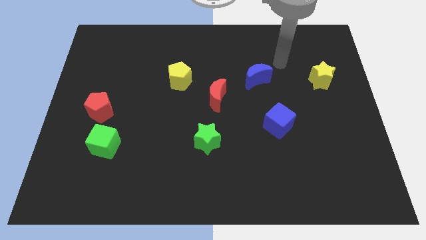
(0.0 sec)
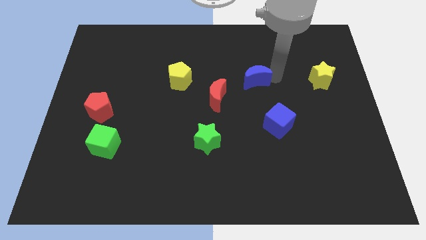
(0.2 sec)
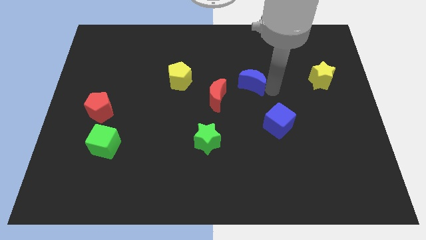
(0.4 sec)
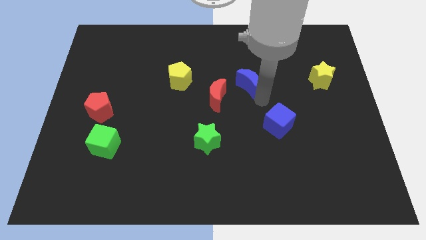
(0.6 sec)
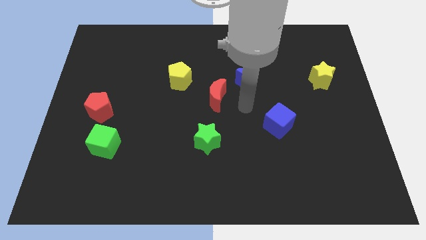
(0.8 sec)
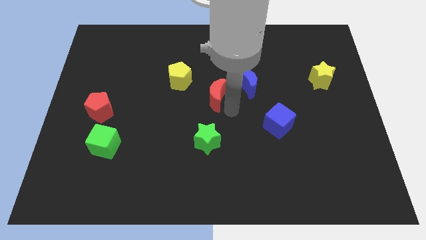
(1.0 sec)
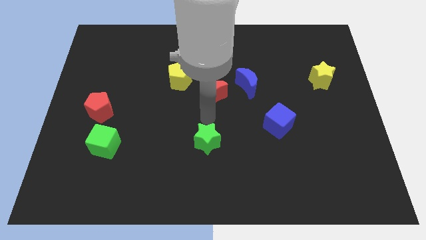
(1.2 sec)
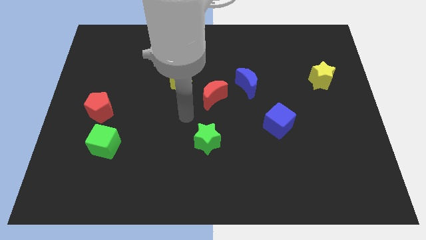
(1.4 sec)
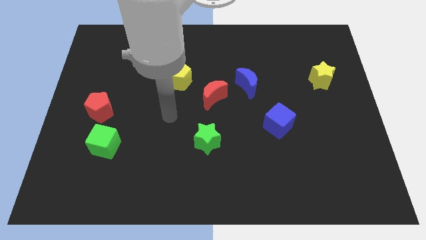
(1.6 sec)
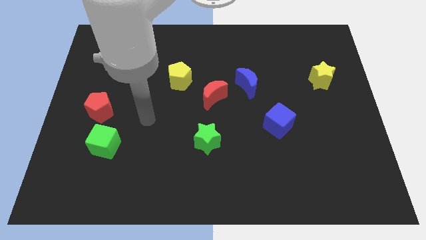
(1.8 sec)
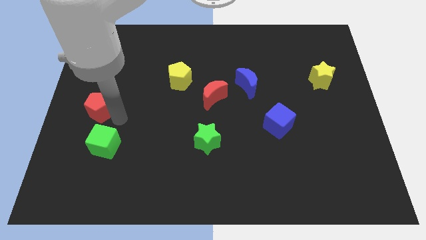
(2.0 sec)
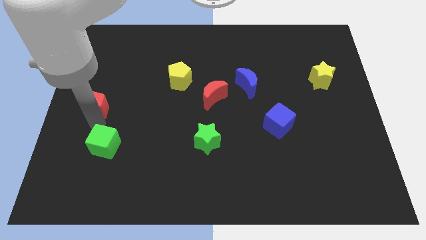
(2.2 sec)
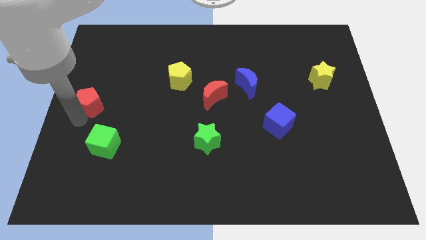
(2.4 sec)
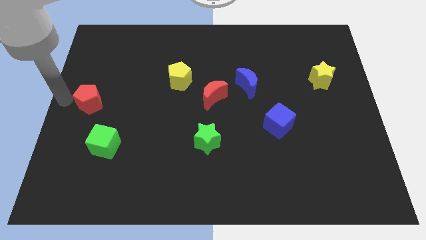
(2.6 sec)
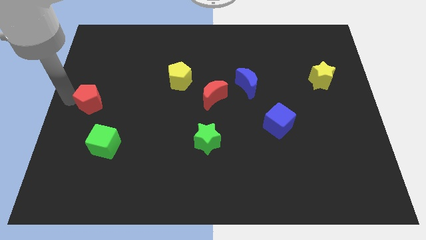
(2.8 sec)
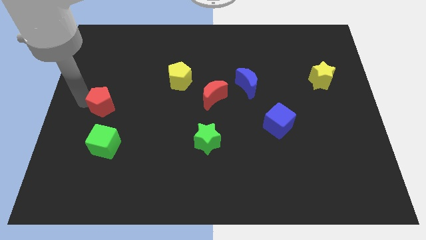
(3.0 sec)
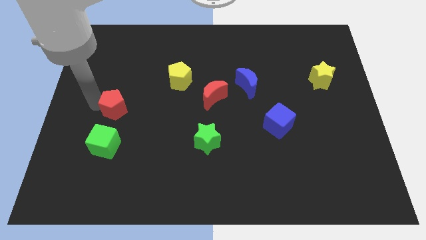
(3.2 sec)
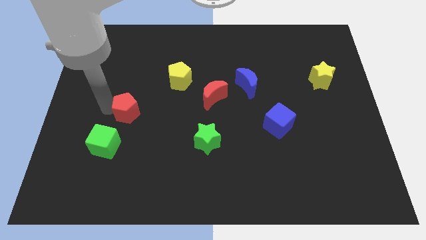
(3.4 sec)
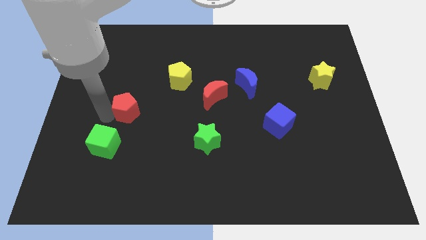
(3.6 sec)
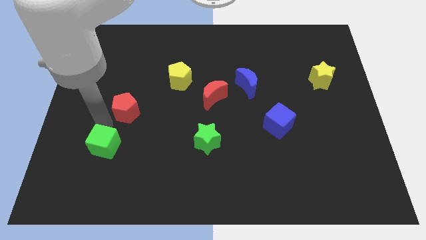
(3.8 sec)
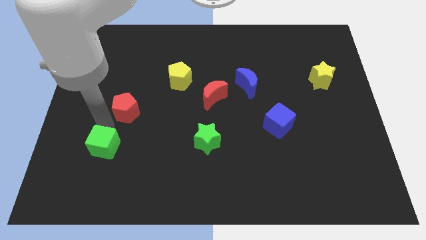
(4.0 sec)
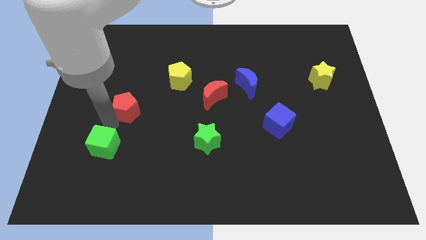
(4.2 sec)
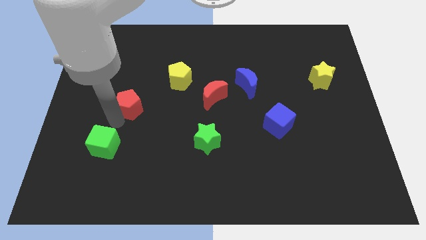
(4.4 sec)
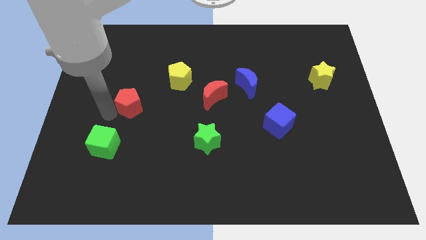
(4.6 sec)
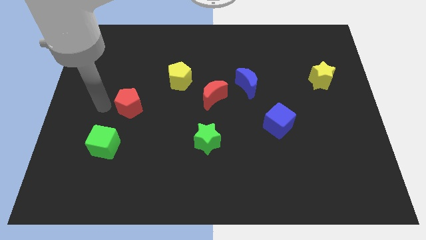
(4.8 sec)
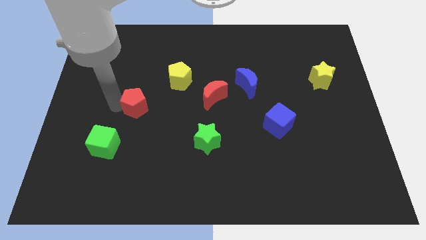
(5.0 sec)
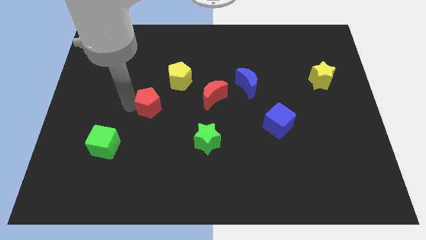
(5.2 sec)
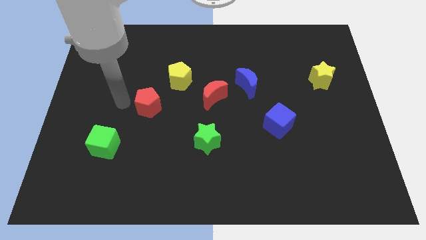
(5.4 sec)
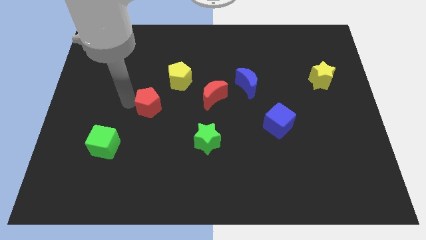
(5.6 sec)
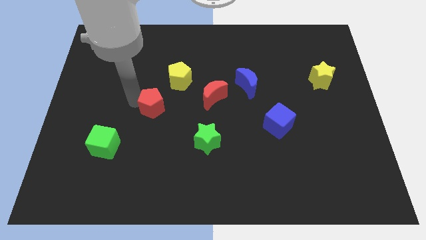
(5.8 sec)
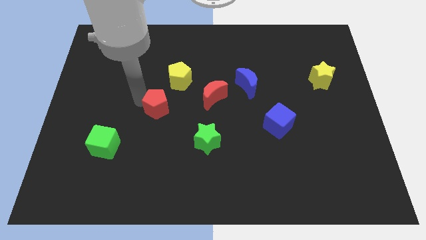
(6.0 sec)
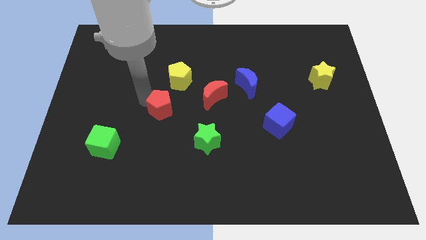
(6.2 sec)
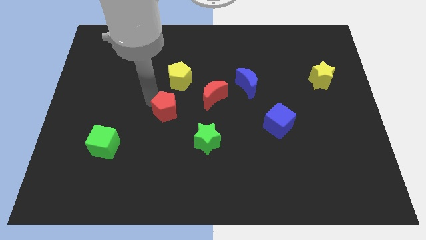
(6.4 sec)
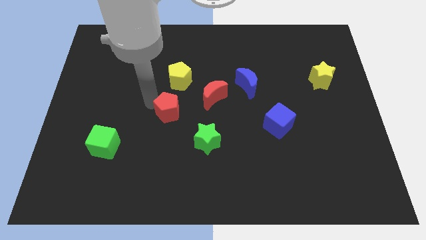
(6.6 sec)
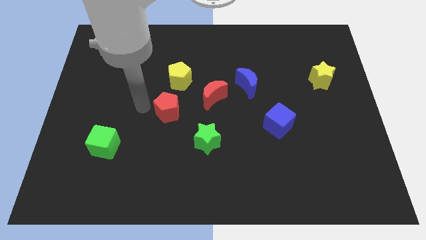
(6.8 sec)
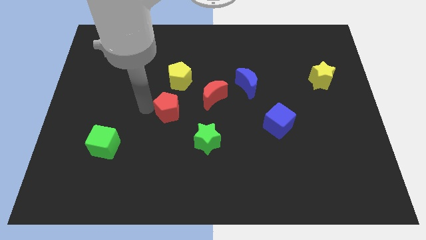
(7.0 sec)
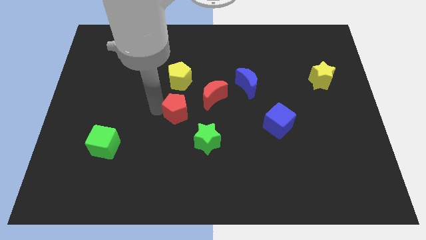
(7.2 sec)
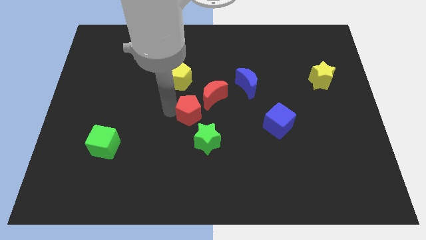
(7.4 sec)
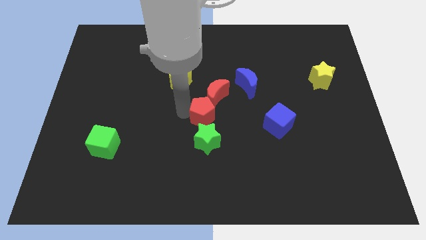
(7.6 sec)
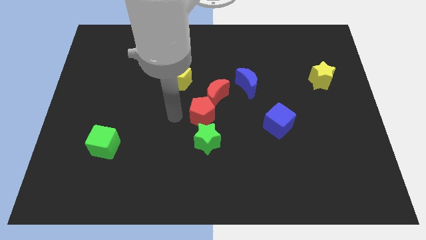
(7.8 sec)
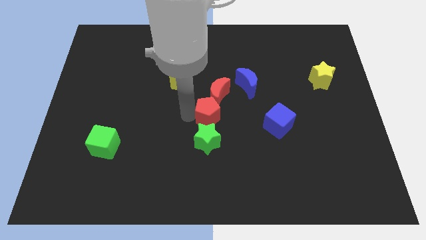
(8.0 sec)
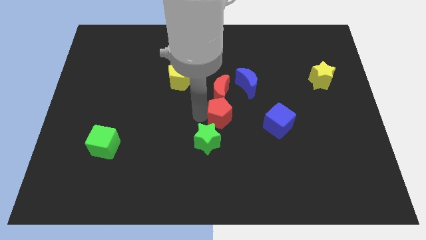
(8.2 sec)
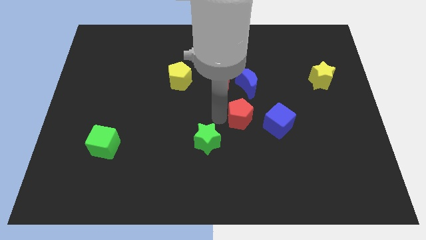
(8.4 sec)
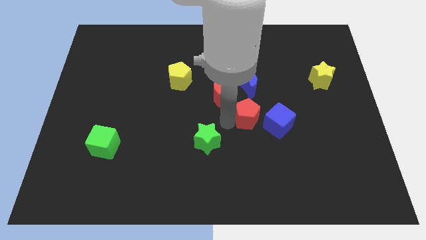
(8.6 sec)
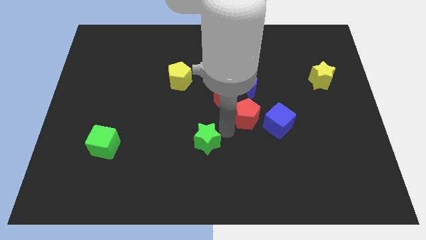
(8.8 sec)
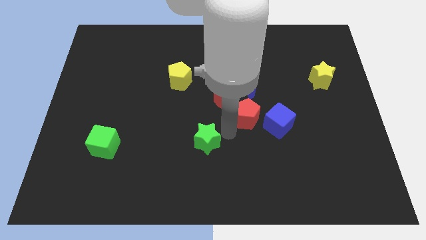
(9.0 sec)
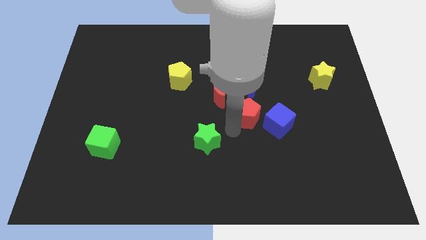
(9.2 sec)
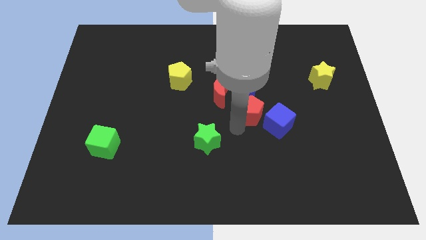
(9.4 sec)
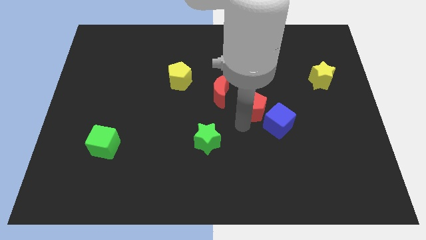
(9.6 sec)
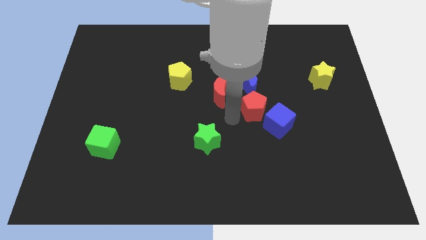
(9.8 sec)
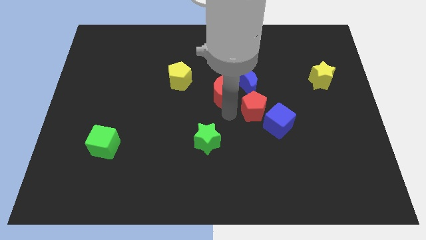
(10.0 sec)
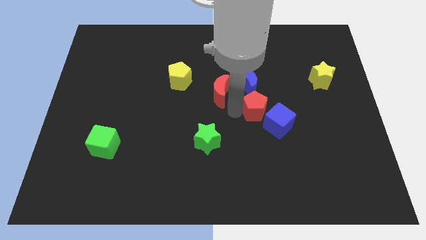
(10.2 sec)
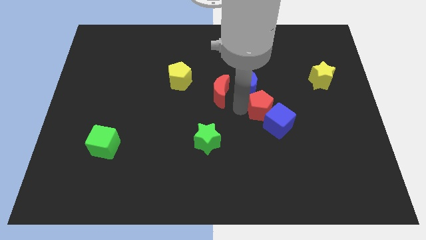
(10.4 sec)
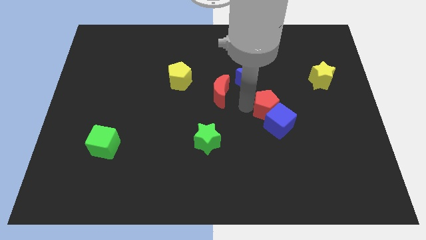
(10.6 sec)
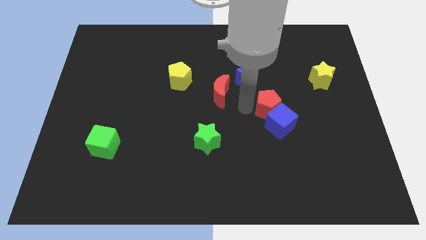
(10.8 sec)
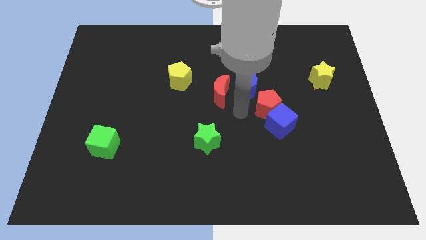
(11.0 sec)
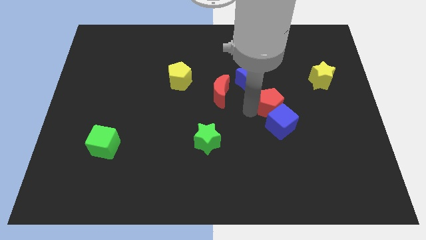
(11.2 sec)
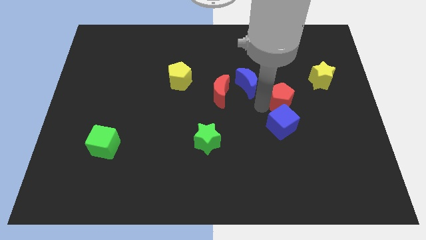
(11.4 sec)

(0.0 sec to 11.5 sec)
slide the red pentagon to the top right side of the blue cube
